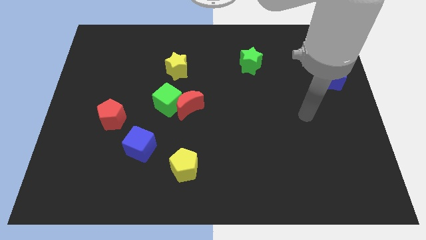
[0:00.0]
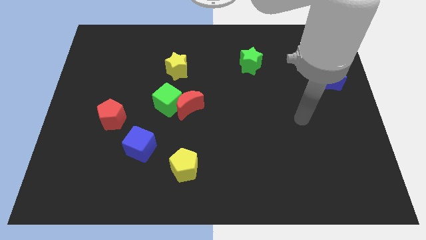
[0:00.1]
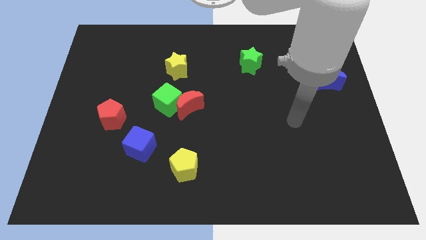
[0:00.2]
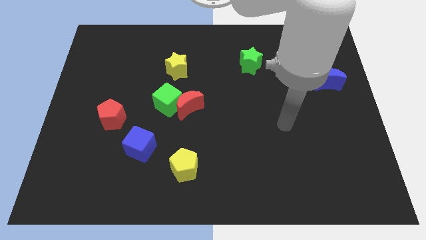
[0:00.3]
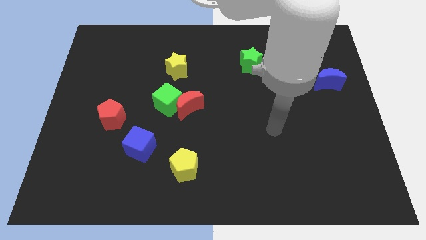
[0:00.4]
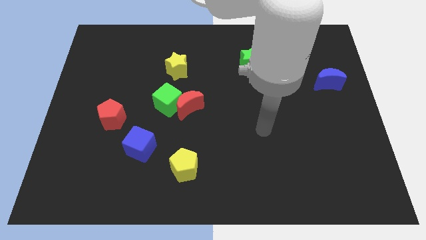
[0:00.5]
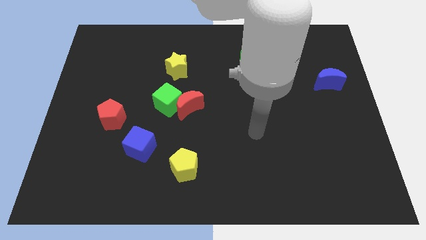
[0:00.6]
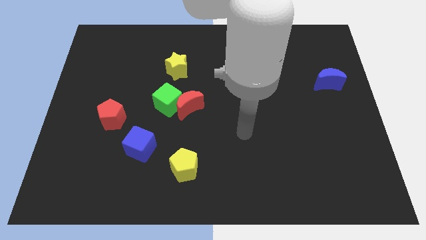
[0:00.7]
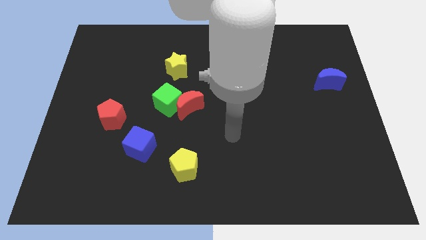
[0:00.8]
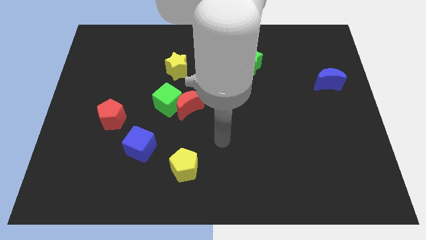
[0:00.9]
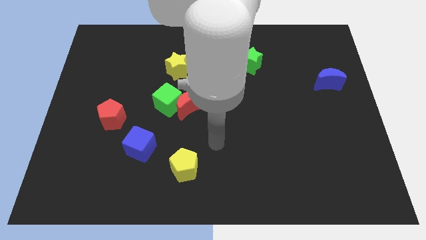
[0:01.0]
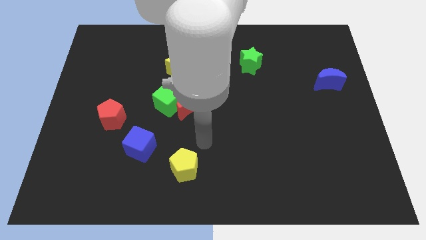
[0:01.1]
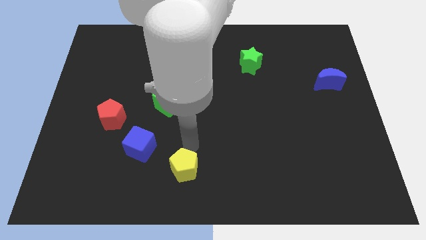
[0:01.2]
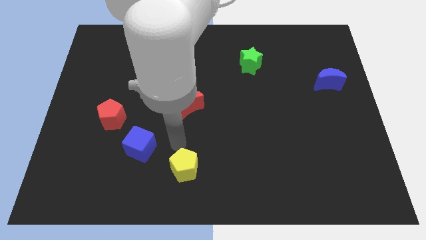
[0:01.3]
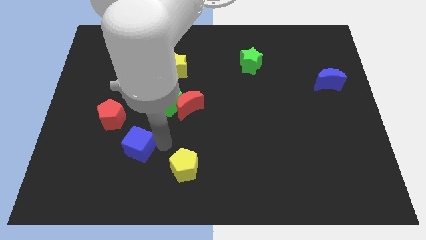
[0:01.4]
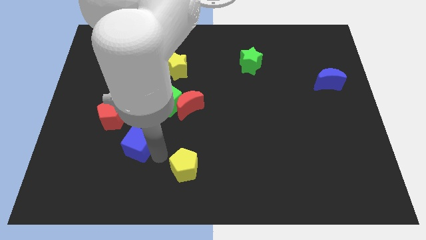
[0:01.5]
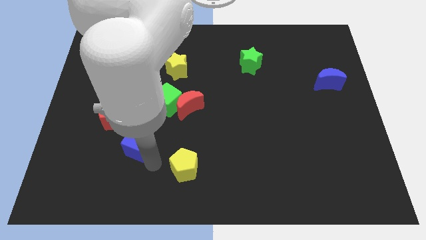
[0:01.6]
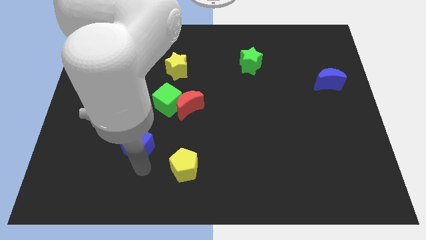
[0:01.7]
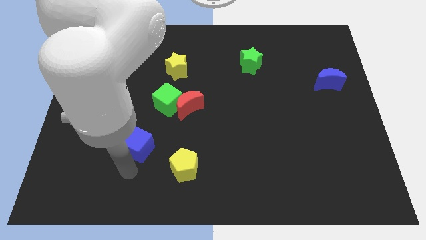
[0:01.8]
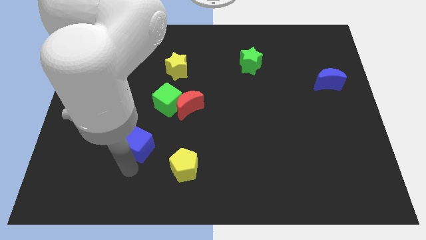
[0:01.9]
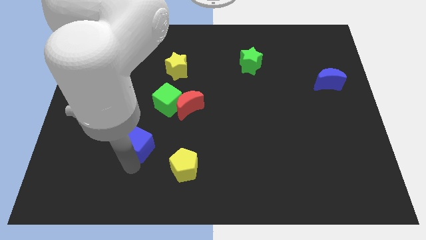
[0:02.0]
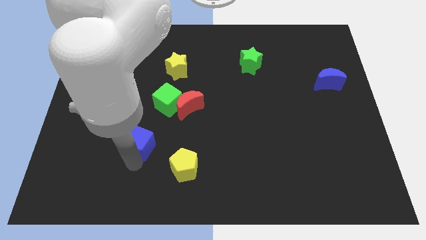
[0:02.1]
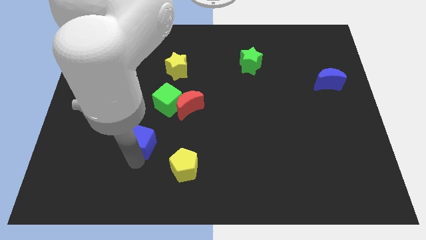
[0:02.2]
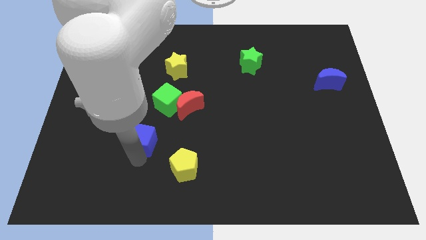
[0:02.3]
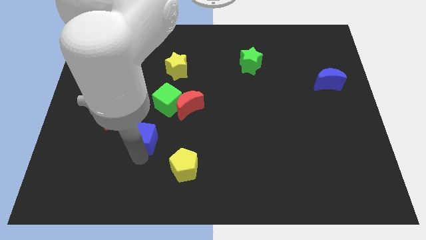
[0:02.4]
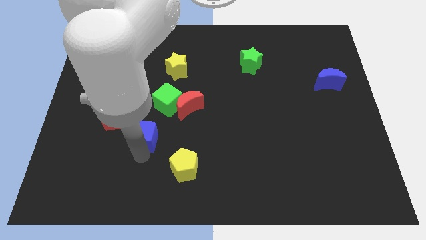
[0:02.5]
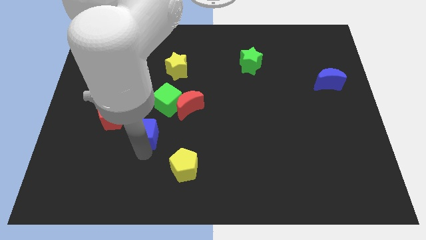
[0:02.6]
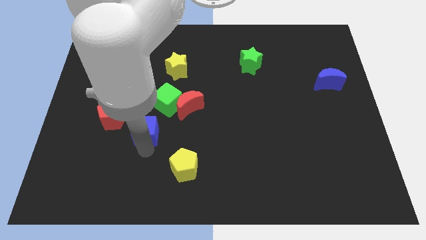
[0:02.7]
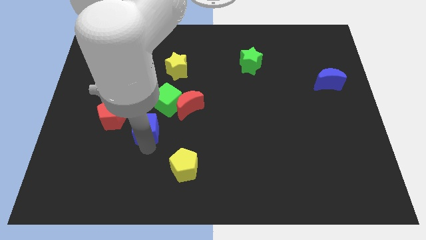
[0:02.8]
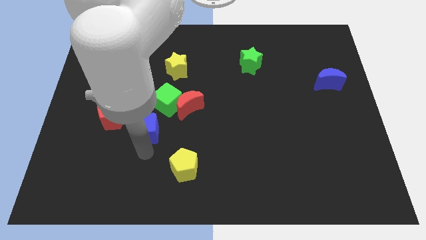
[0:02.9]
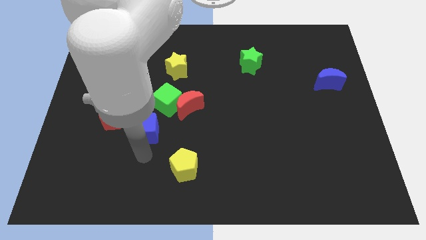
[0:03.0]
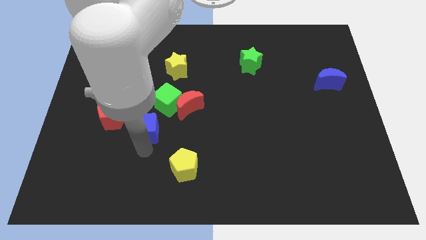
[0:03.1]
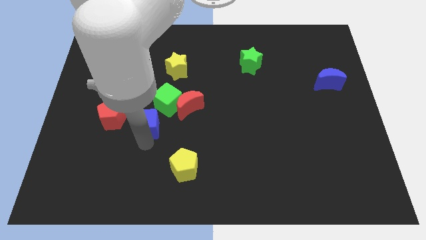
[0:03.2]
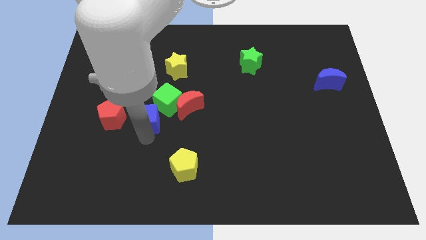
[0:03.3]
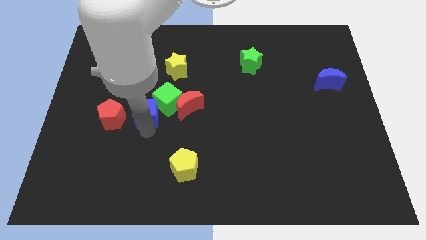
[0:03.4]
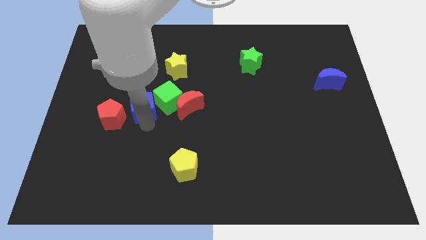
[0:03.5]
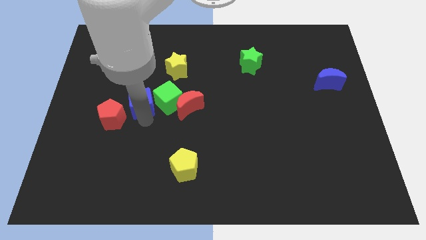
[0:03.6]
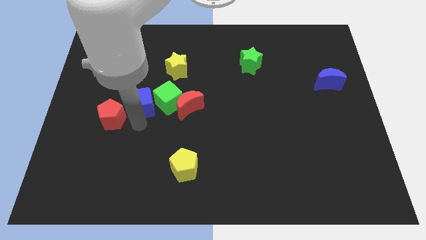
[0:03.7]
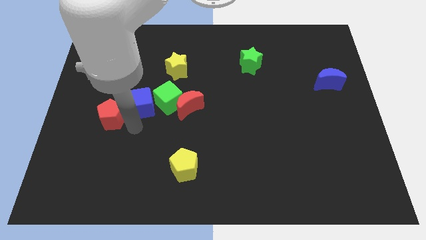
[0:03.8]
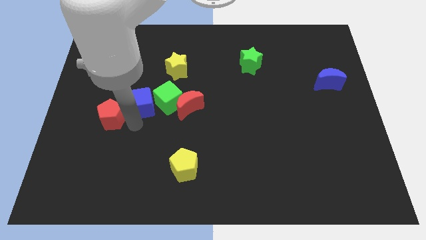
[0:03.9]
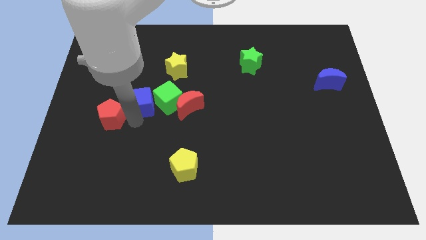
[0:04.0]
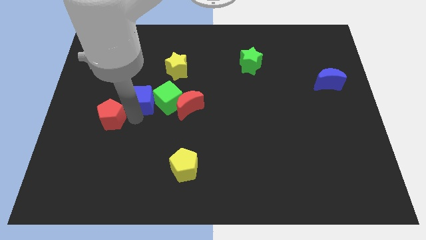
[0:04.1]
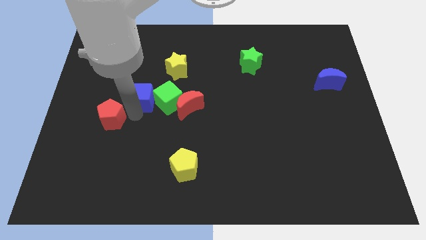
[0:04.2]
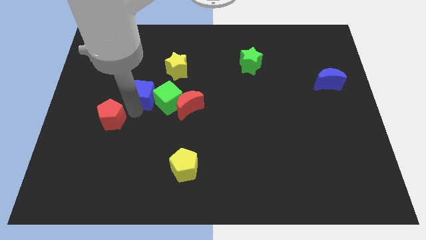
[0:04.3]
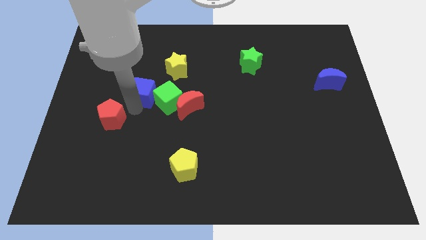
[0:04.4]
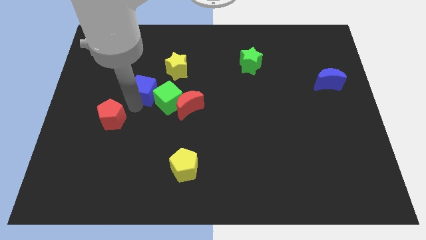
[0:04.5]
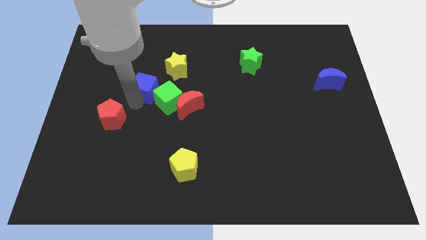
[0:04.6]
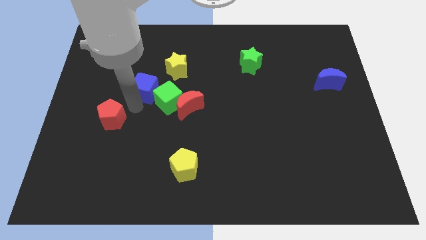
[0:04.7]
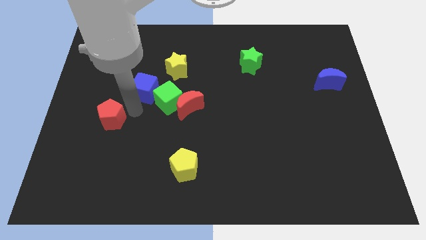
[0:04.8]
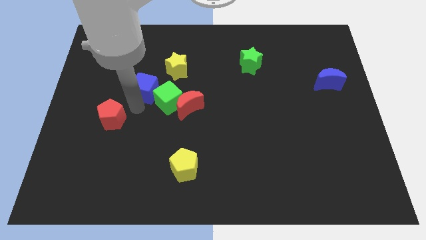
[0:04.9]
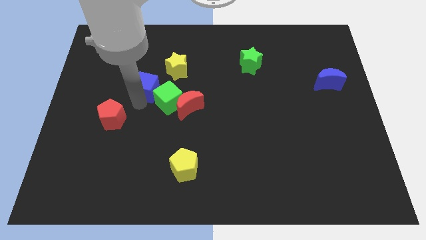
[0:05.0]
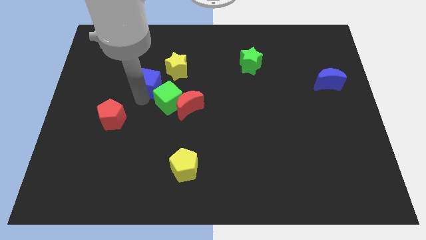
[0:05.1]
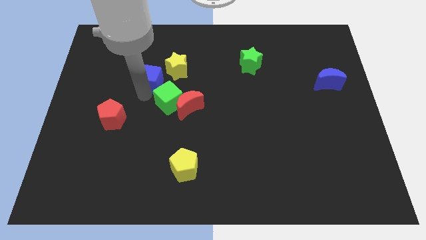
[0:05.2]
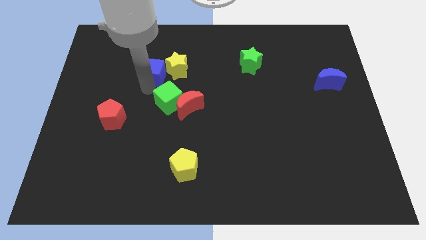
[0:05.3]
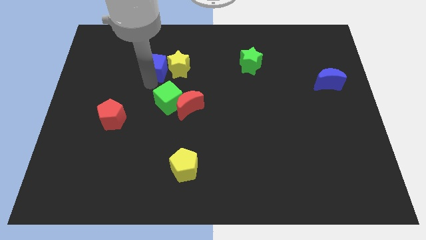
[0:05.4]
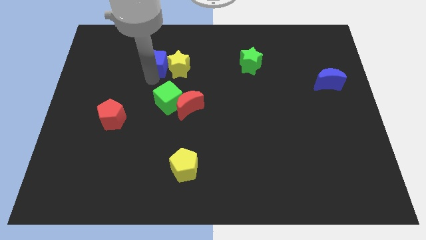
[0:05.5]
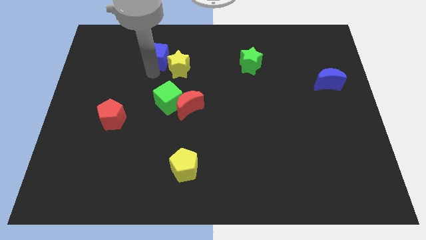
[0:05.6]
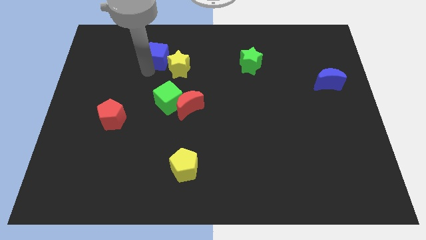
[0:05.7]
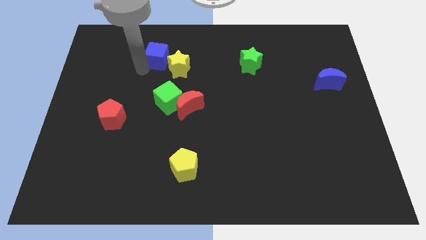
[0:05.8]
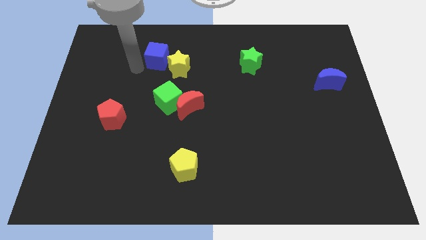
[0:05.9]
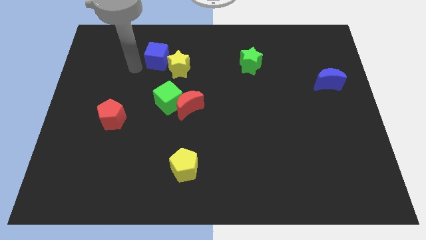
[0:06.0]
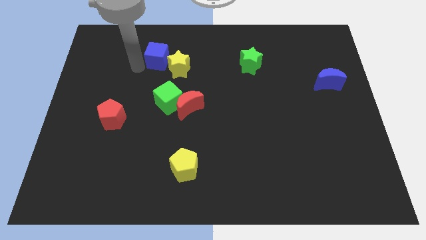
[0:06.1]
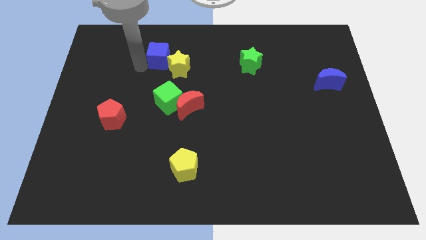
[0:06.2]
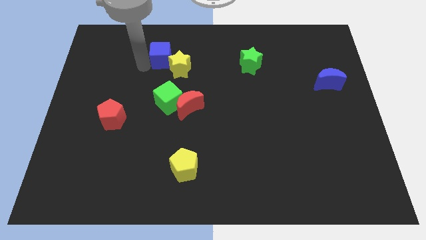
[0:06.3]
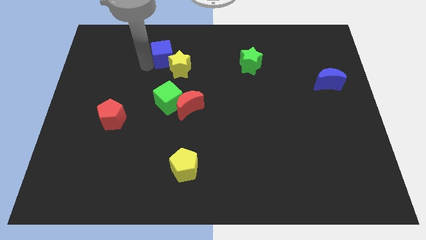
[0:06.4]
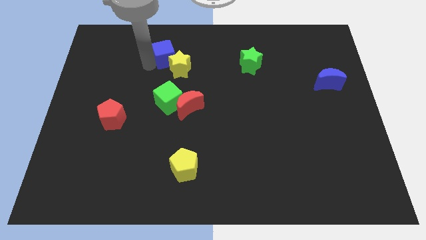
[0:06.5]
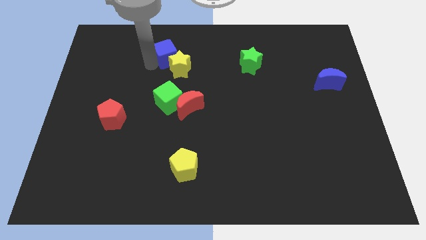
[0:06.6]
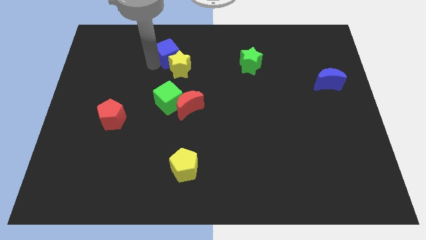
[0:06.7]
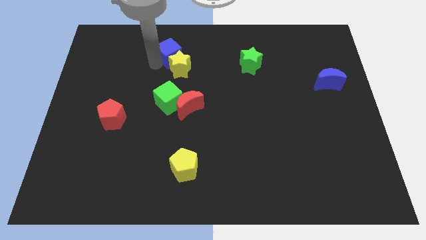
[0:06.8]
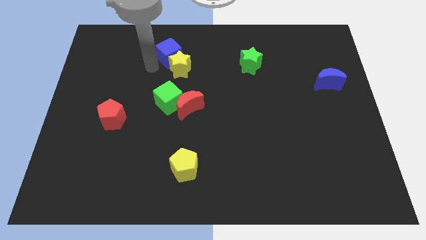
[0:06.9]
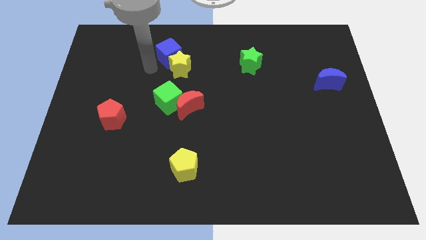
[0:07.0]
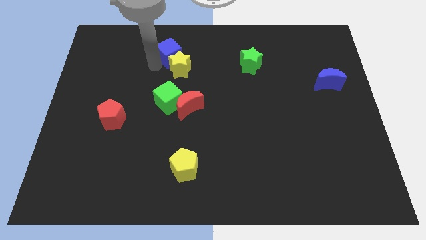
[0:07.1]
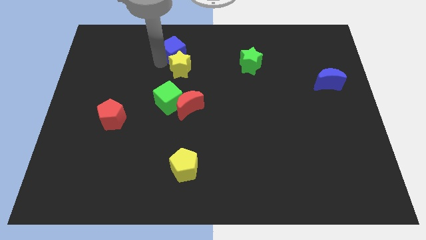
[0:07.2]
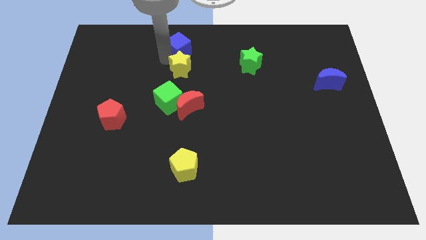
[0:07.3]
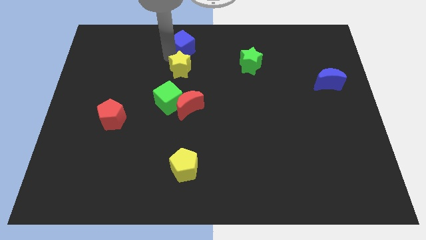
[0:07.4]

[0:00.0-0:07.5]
move the blue cube to the top
